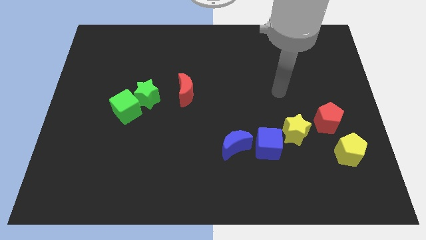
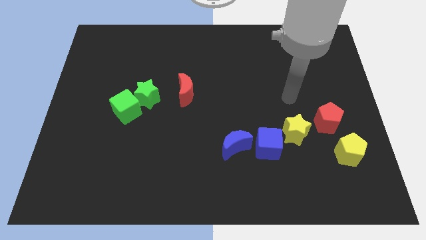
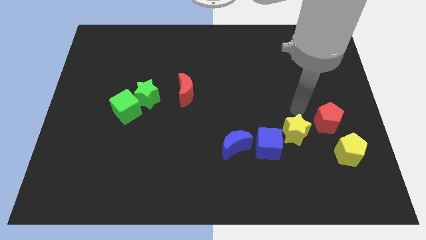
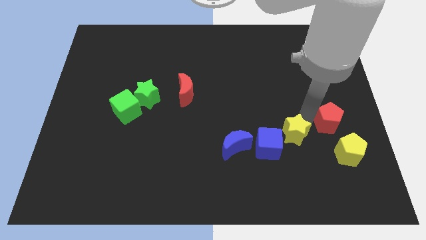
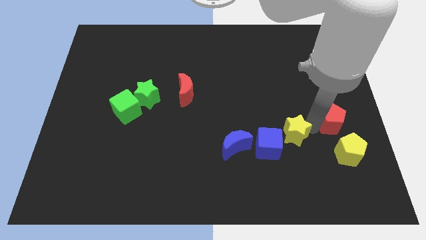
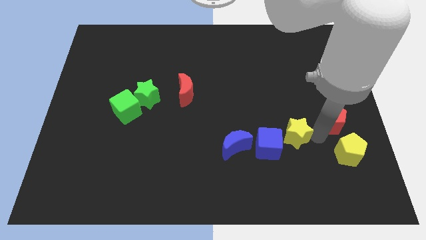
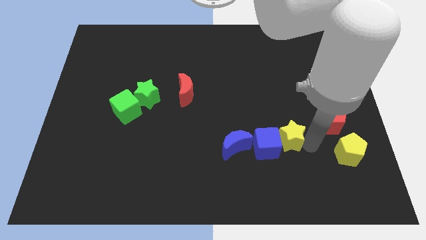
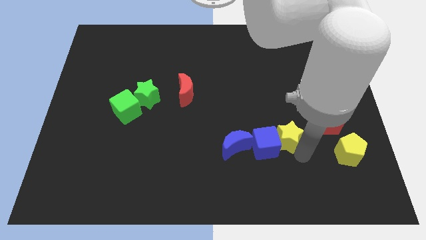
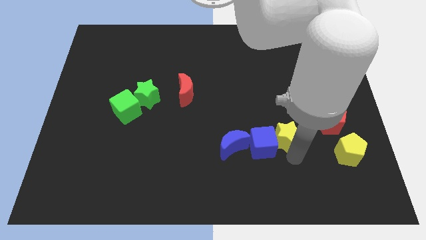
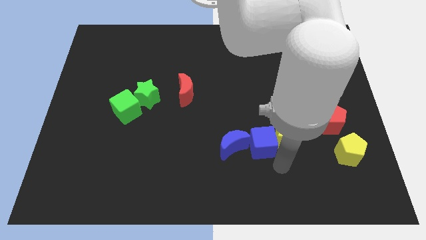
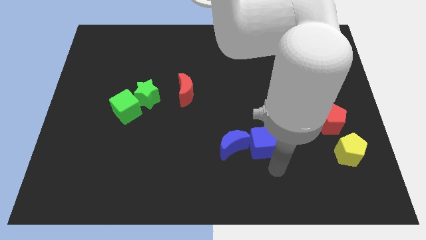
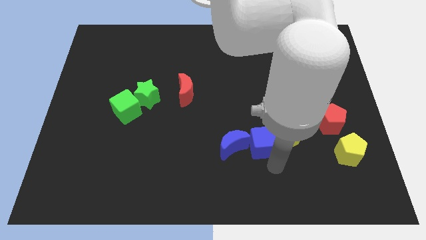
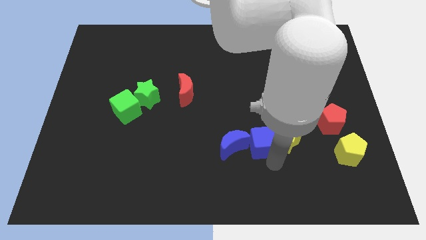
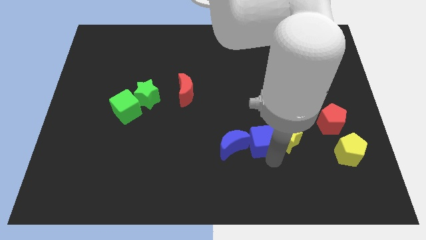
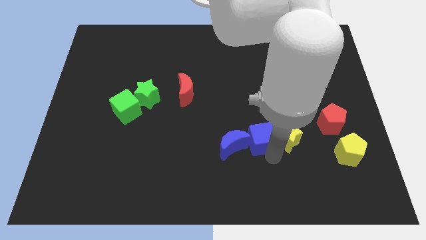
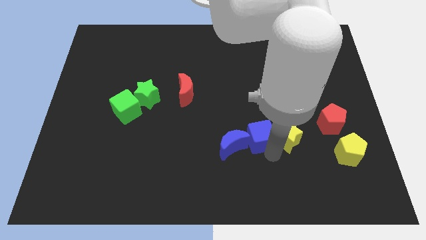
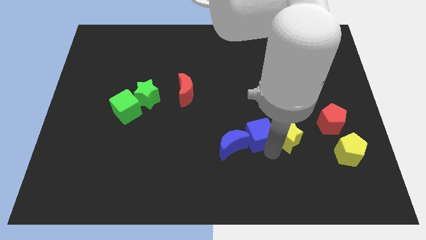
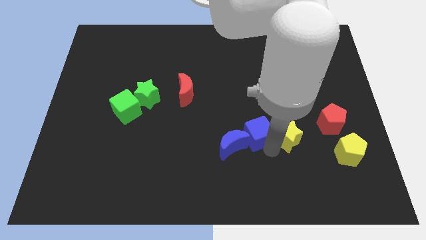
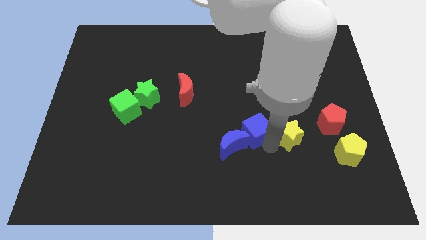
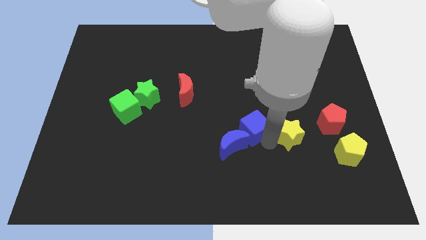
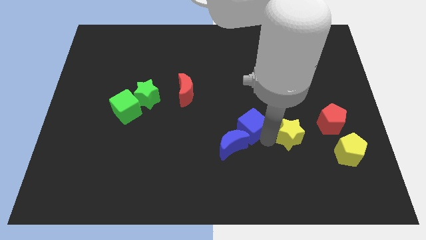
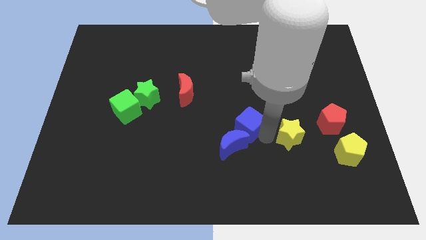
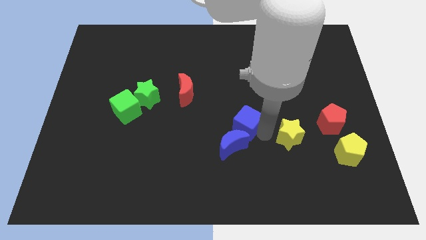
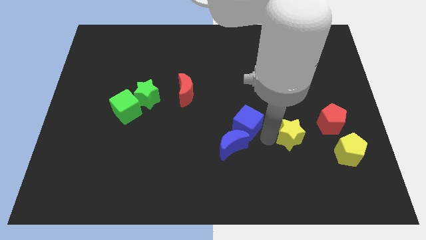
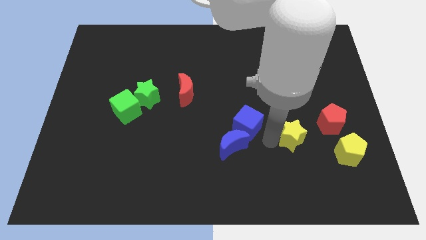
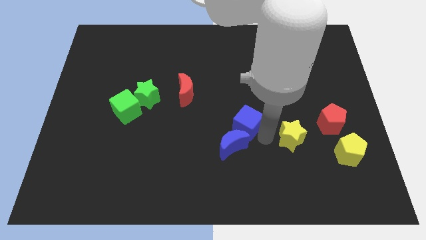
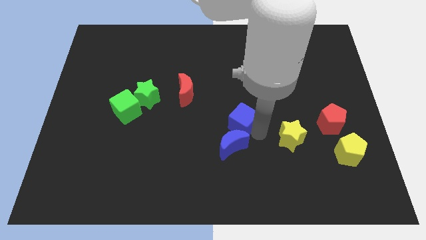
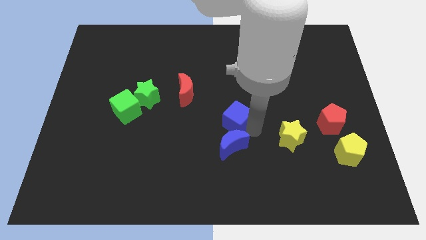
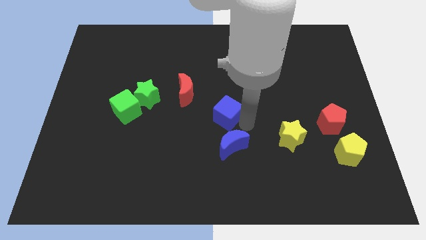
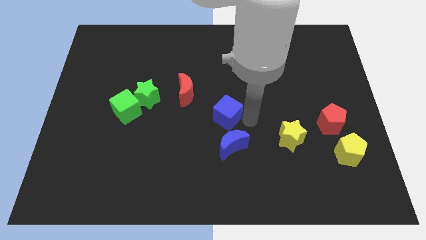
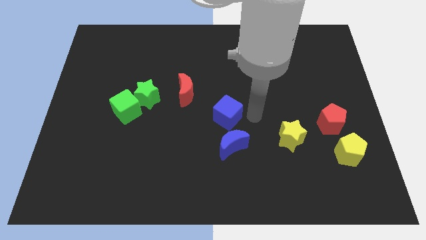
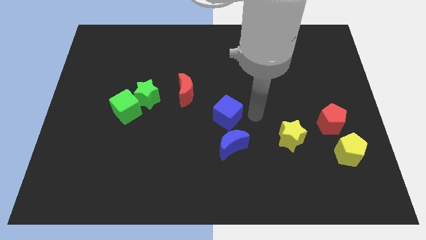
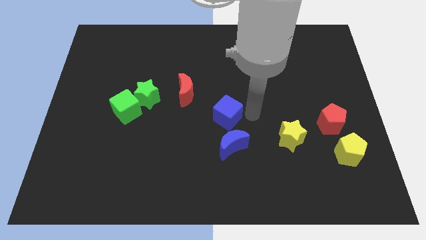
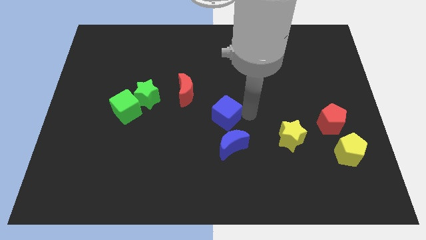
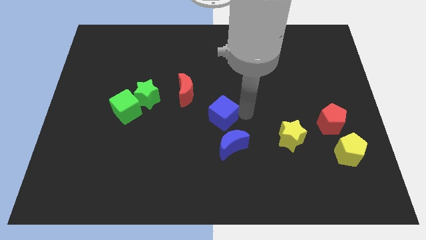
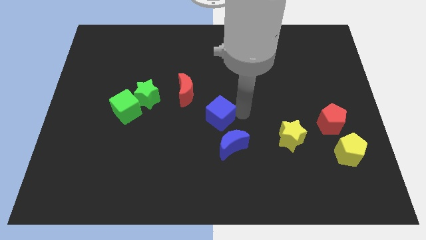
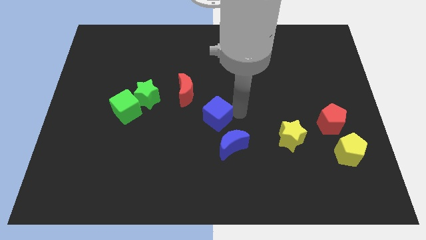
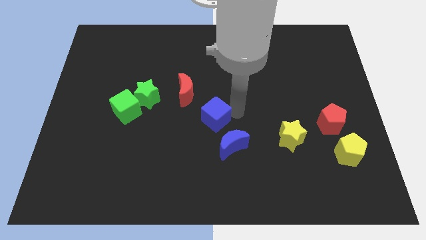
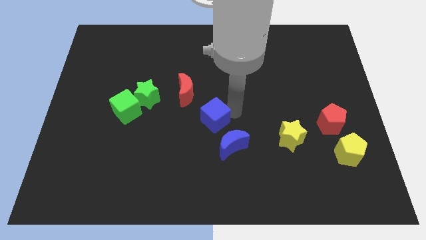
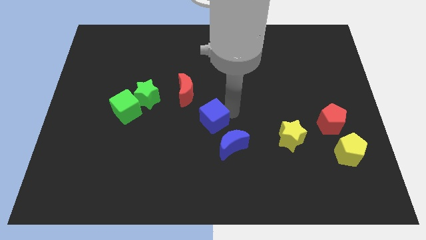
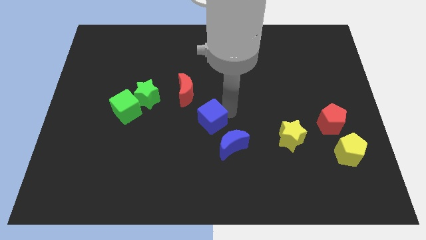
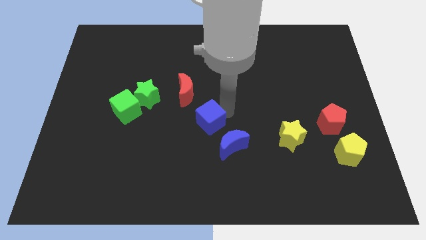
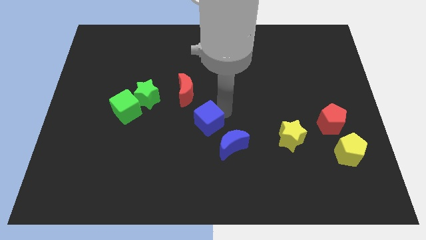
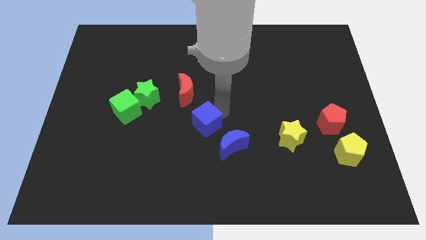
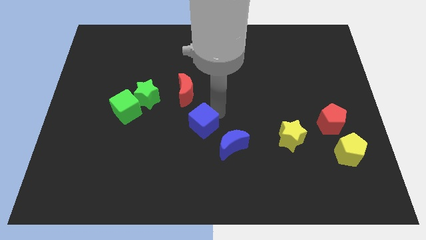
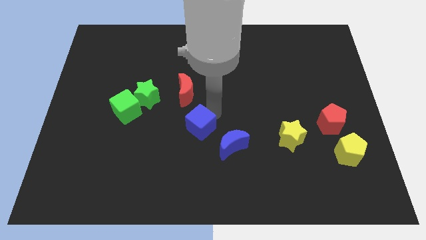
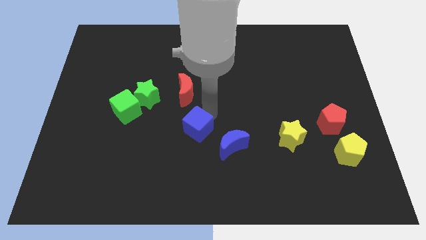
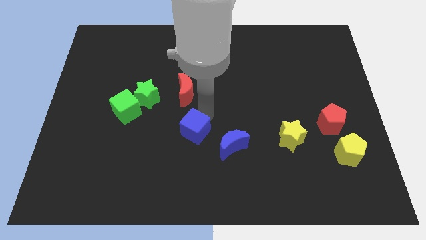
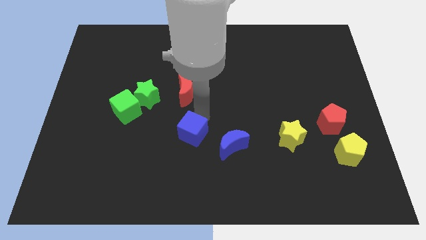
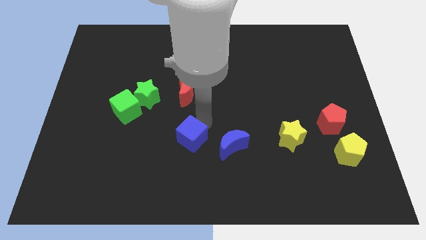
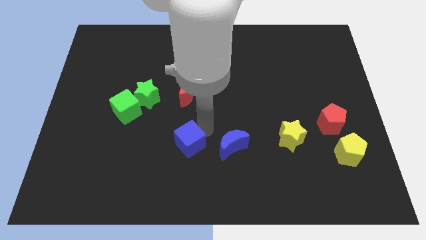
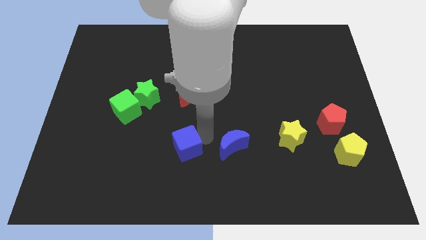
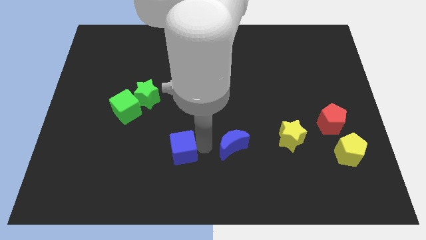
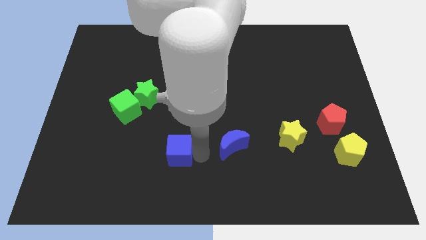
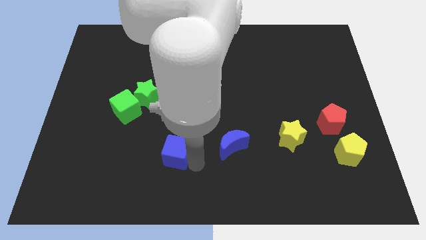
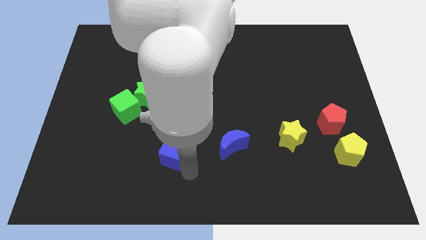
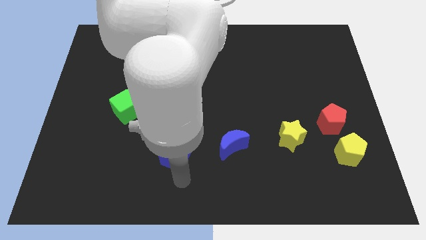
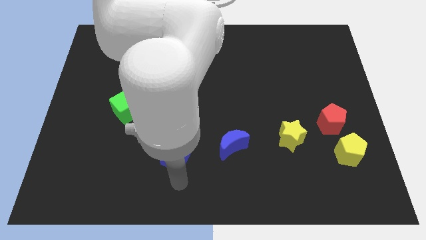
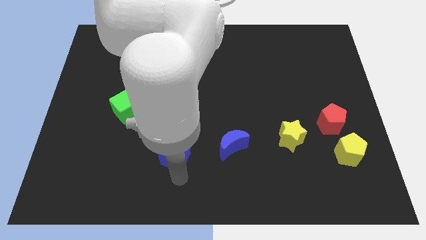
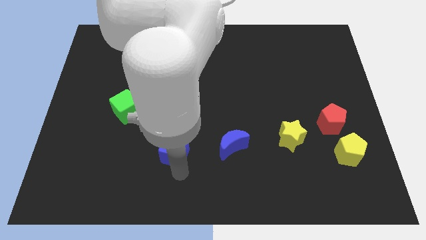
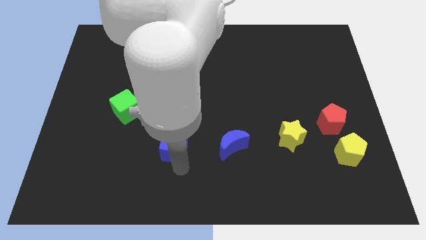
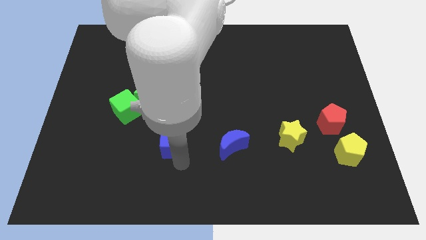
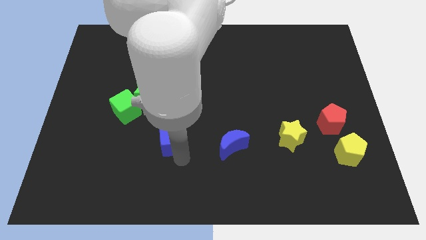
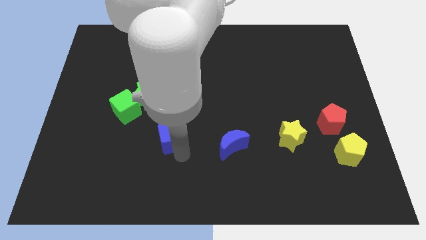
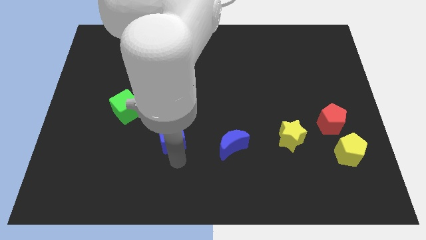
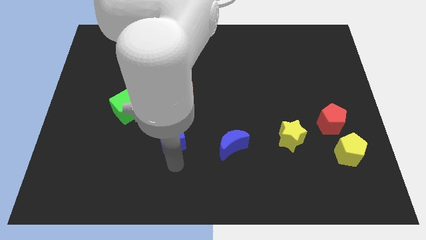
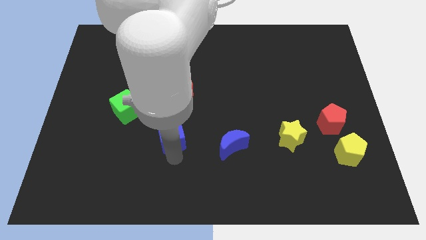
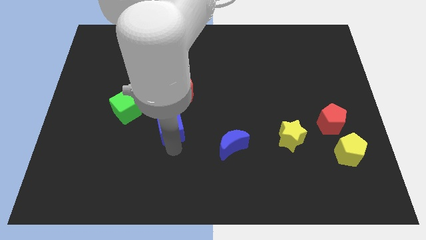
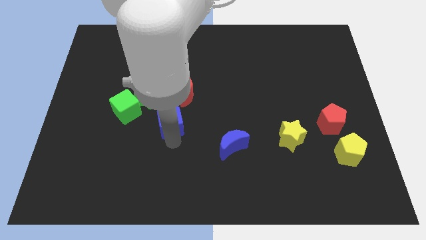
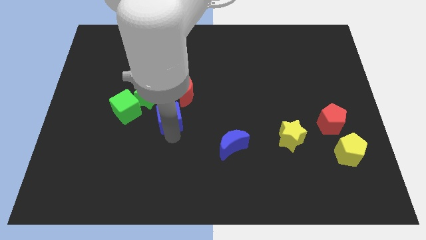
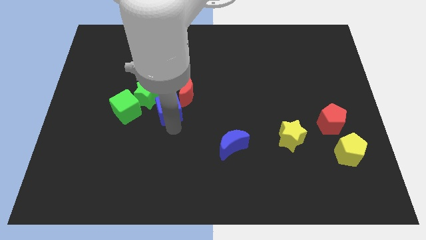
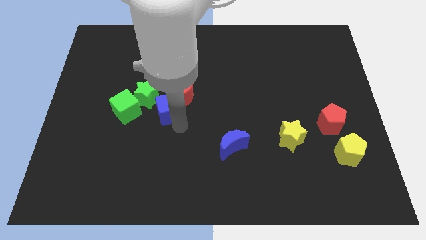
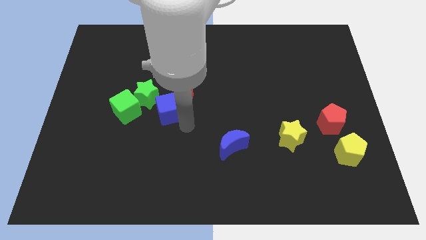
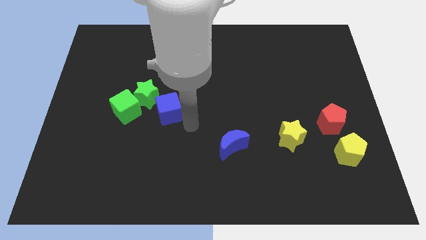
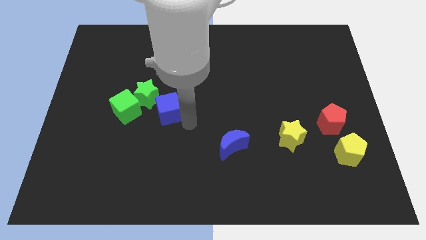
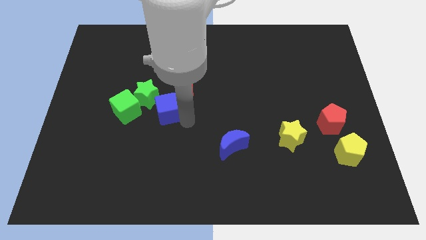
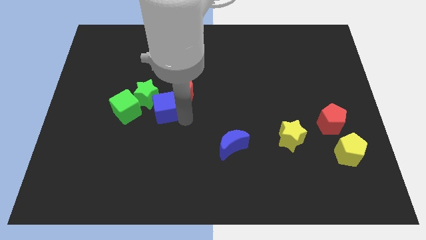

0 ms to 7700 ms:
slide the blue cube to the green star

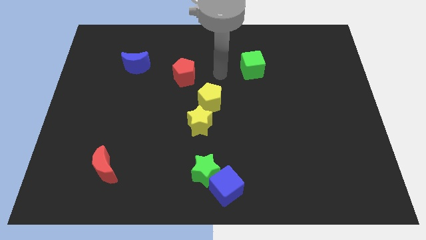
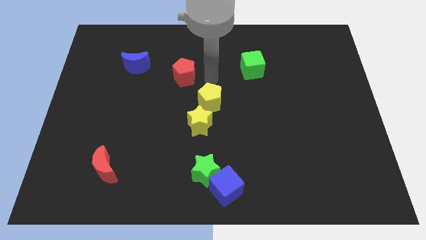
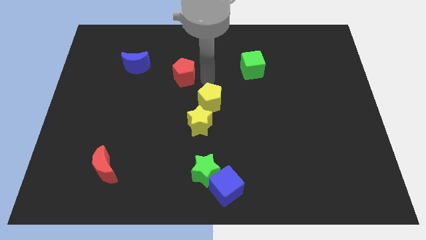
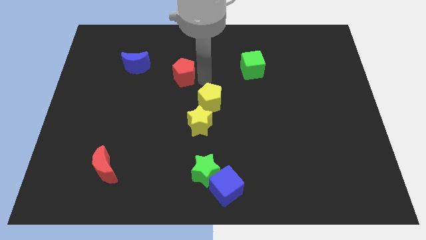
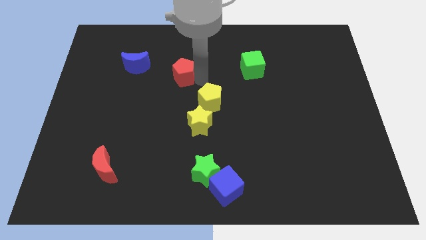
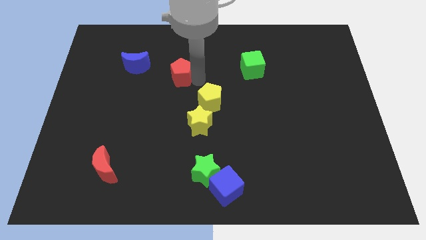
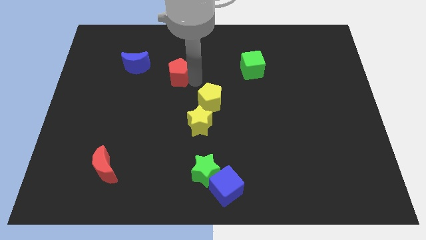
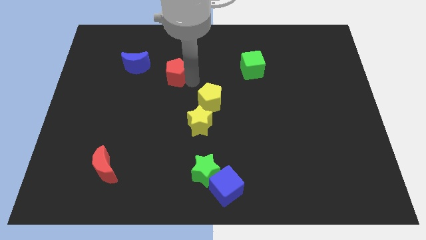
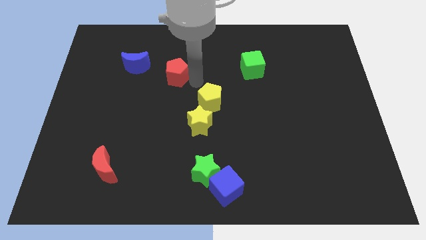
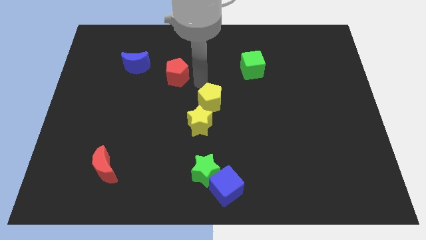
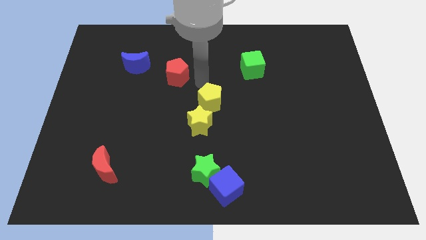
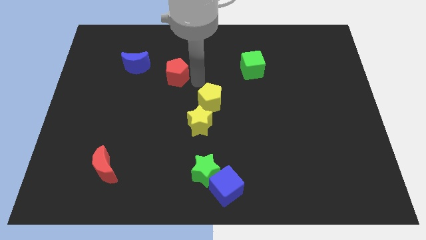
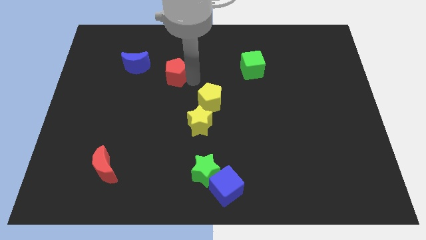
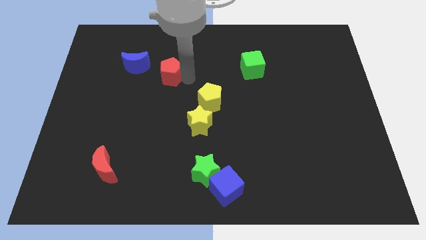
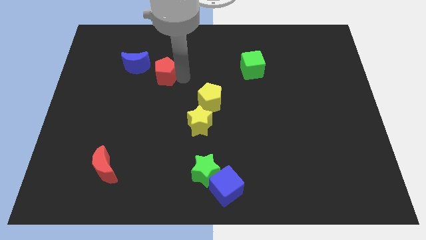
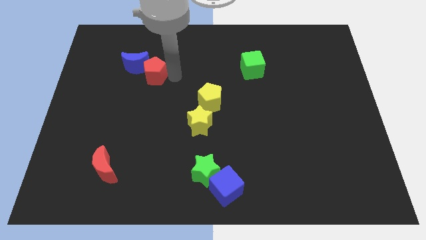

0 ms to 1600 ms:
move the red pentagon towards the blue moon
